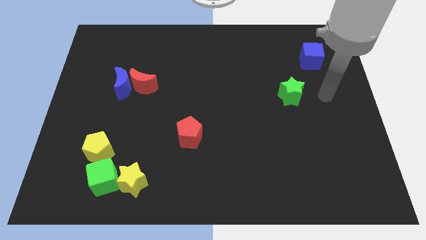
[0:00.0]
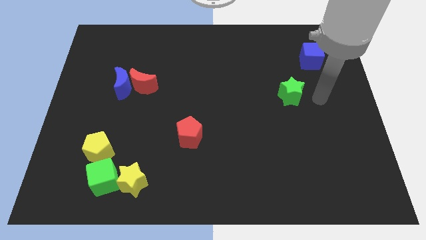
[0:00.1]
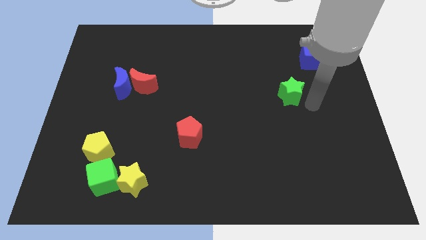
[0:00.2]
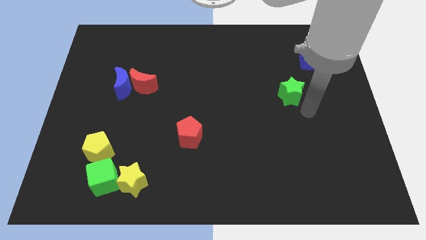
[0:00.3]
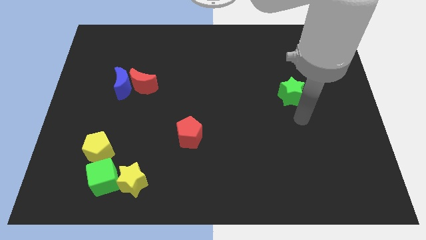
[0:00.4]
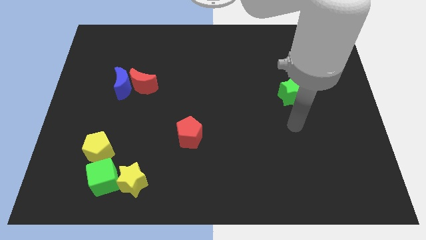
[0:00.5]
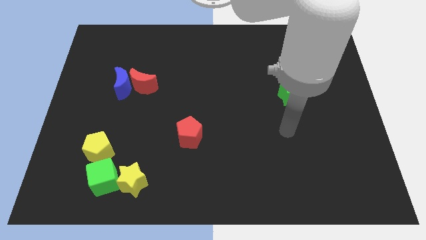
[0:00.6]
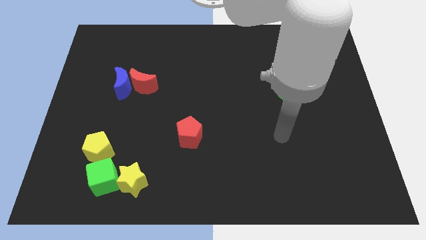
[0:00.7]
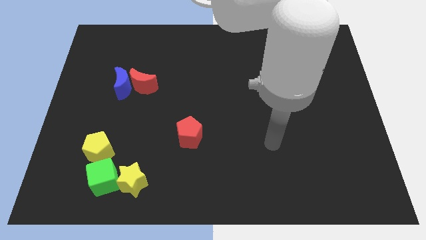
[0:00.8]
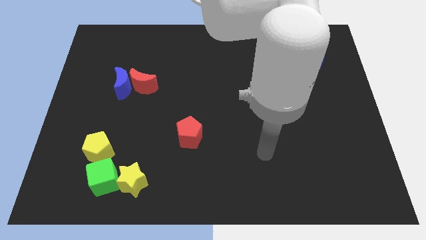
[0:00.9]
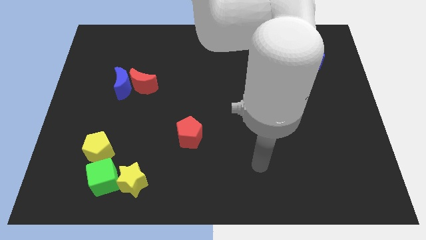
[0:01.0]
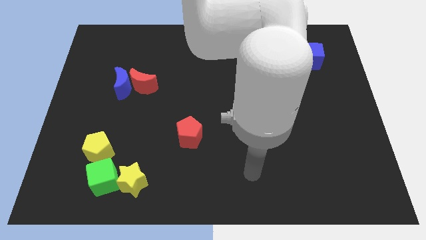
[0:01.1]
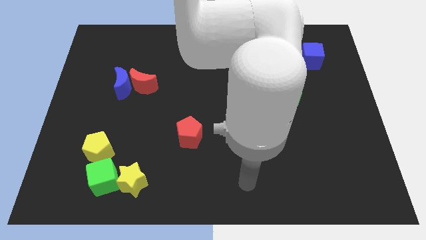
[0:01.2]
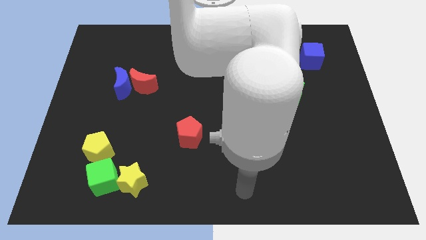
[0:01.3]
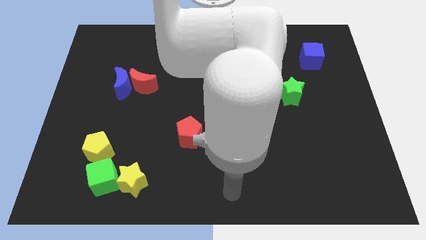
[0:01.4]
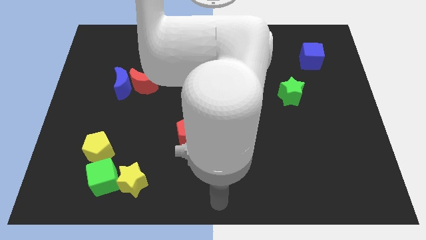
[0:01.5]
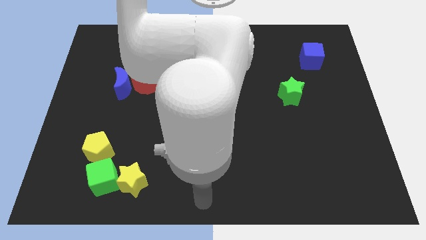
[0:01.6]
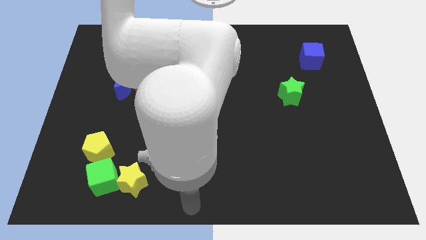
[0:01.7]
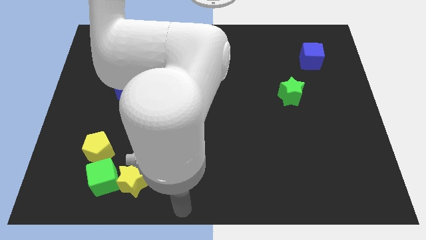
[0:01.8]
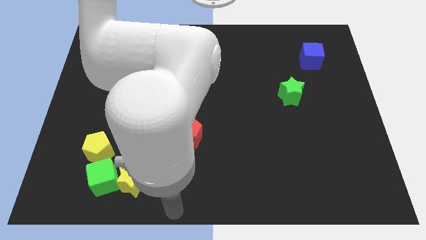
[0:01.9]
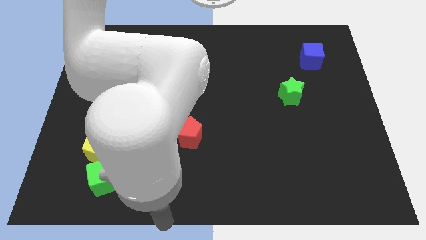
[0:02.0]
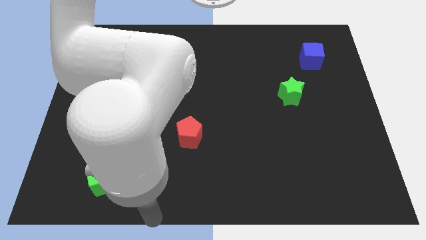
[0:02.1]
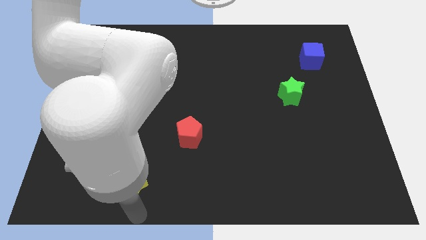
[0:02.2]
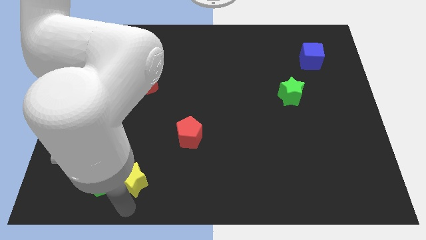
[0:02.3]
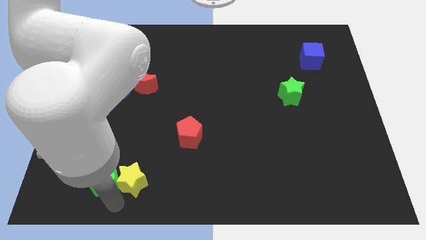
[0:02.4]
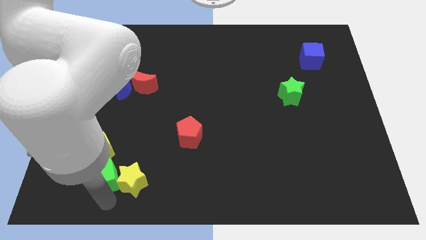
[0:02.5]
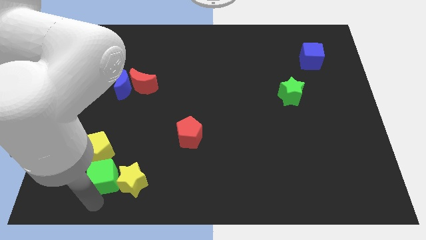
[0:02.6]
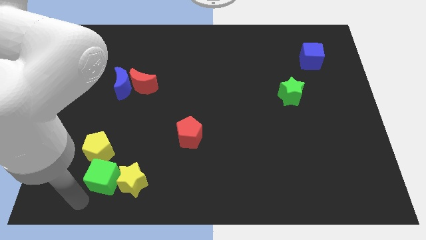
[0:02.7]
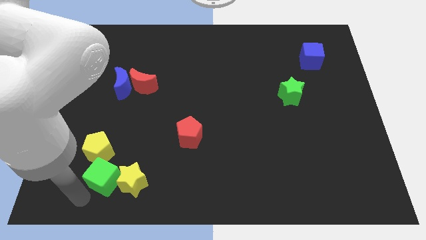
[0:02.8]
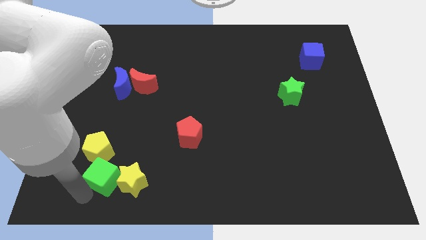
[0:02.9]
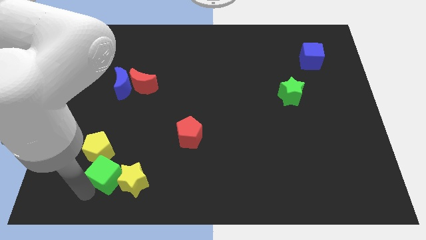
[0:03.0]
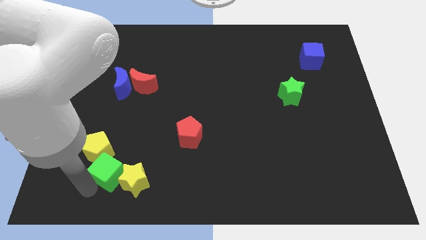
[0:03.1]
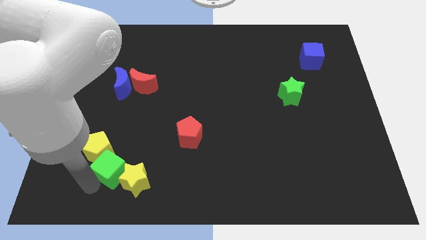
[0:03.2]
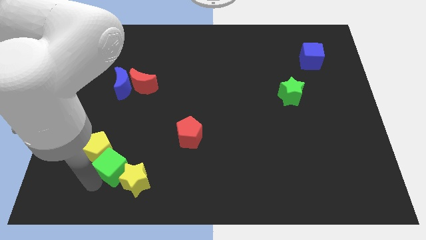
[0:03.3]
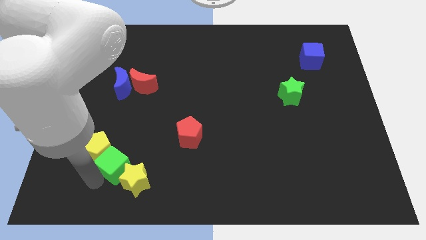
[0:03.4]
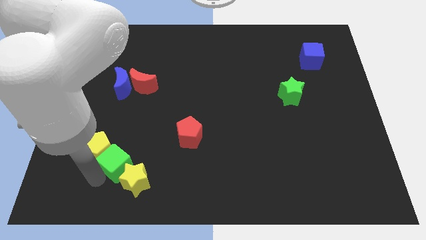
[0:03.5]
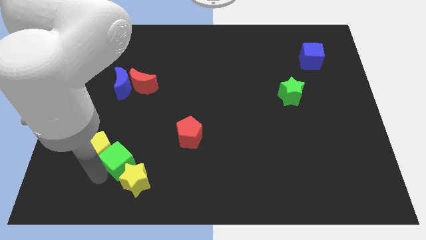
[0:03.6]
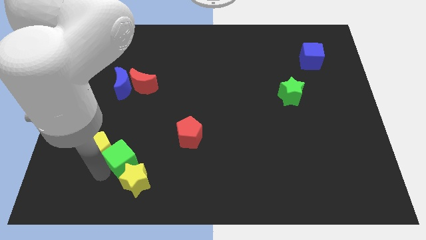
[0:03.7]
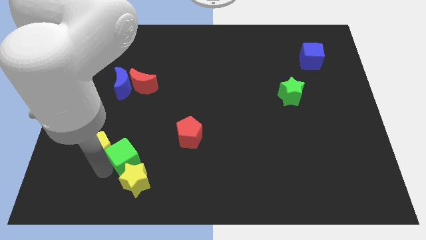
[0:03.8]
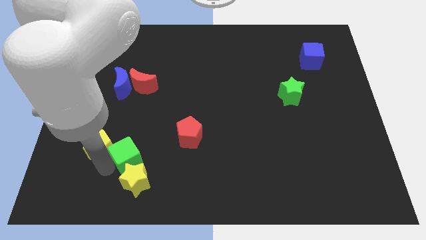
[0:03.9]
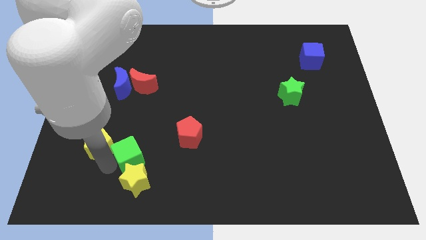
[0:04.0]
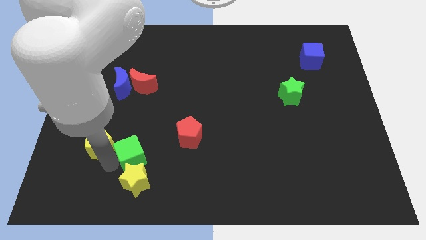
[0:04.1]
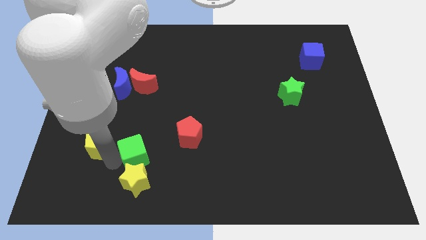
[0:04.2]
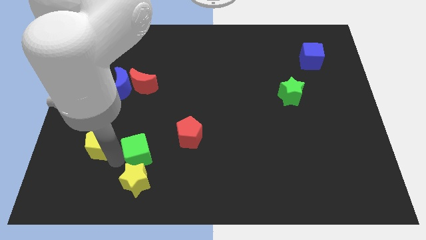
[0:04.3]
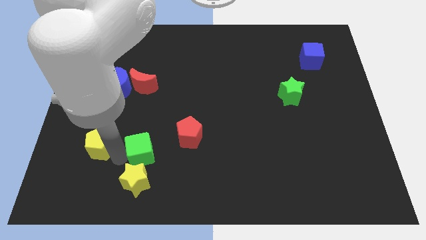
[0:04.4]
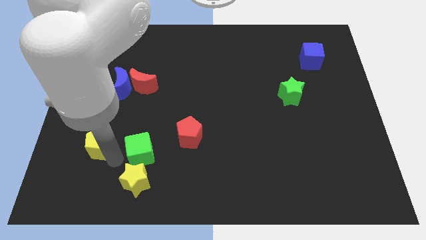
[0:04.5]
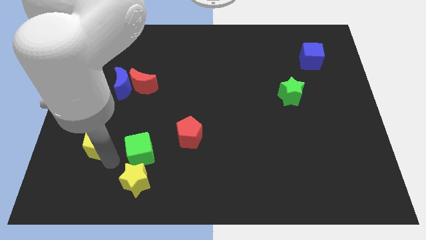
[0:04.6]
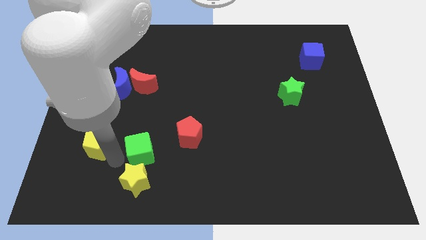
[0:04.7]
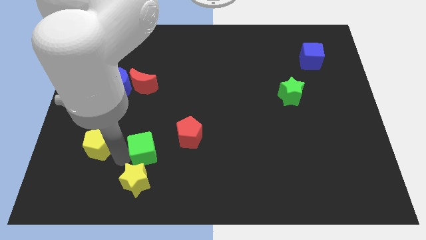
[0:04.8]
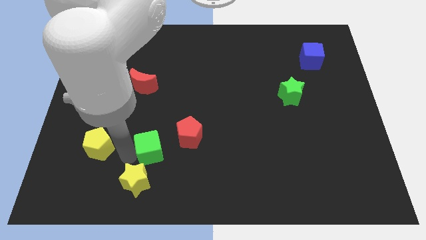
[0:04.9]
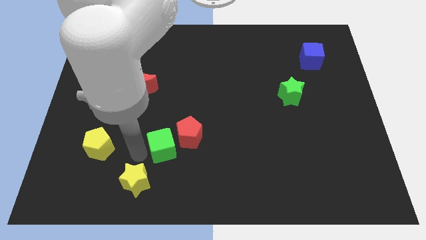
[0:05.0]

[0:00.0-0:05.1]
move the green cube towards the red pentagon

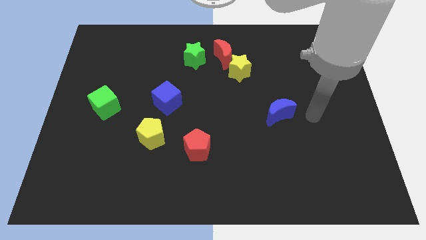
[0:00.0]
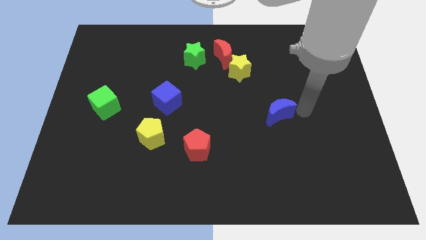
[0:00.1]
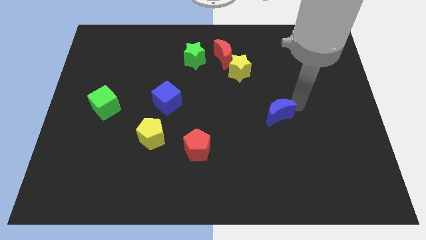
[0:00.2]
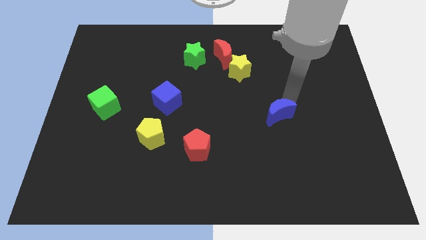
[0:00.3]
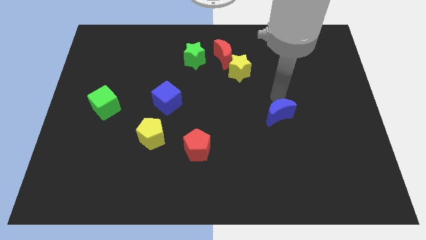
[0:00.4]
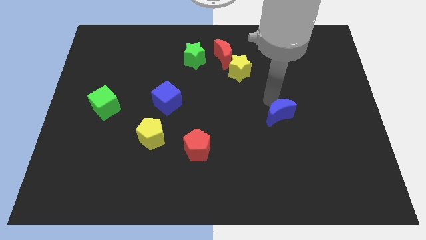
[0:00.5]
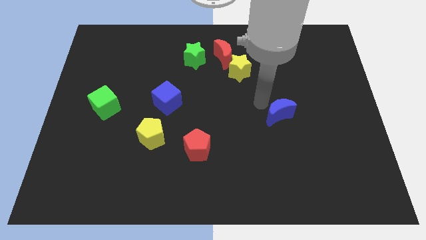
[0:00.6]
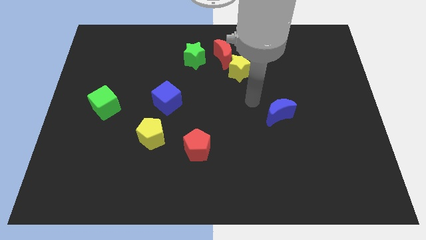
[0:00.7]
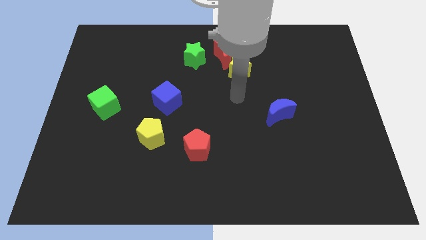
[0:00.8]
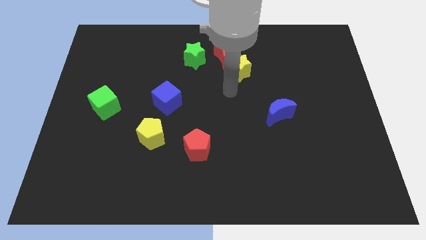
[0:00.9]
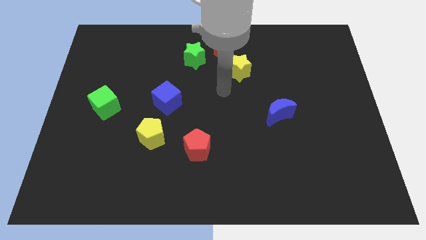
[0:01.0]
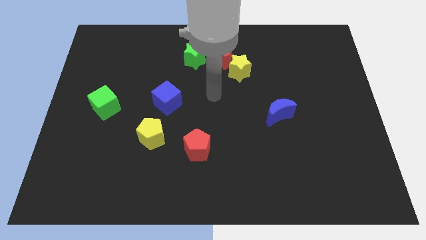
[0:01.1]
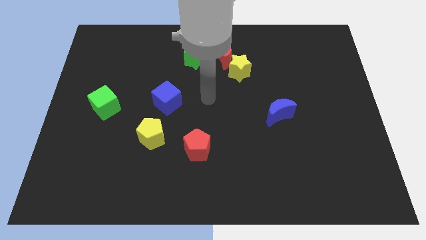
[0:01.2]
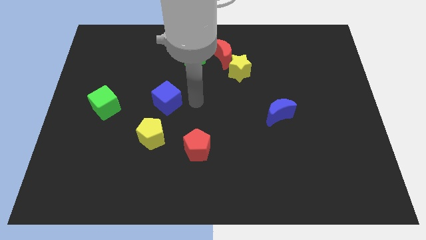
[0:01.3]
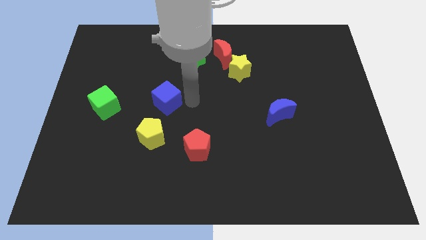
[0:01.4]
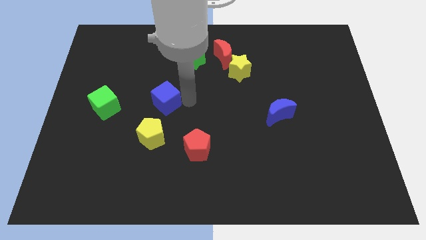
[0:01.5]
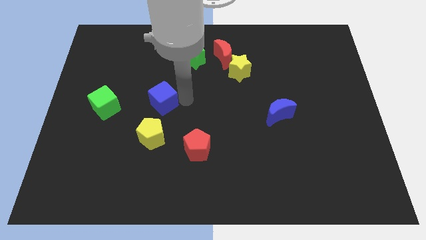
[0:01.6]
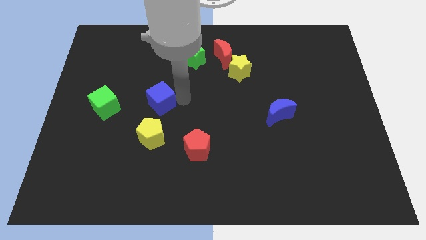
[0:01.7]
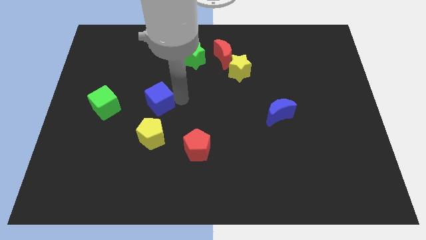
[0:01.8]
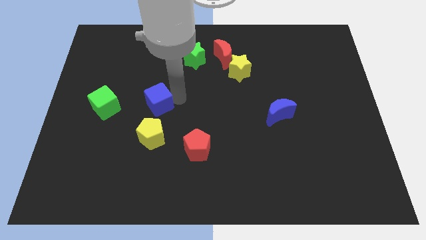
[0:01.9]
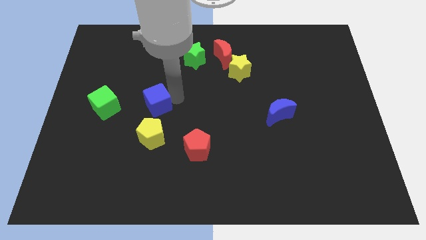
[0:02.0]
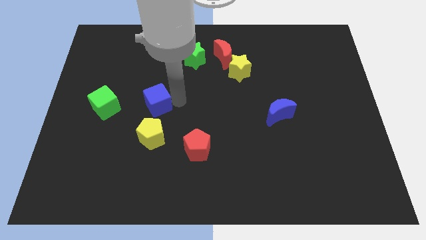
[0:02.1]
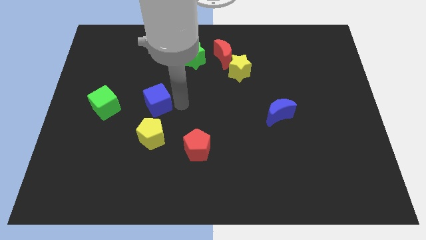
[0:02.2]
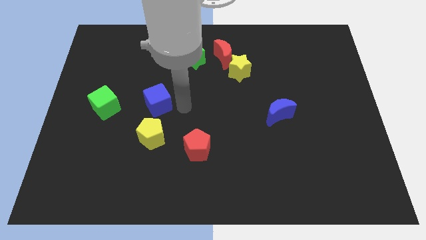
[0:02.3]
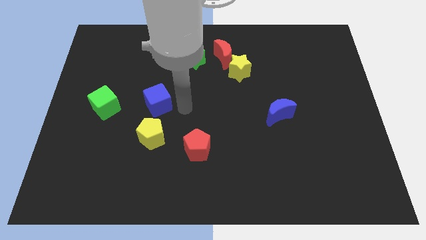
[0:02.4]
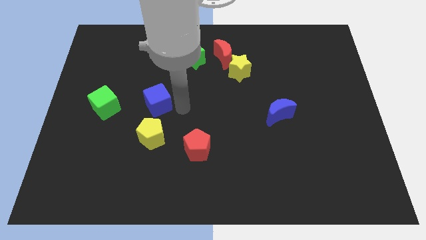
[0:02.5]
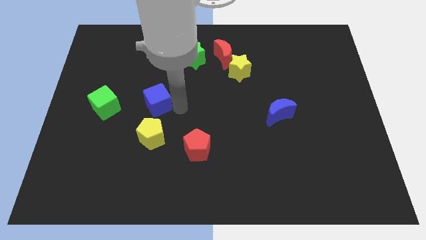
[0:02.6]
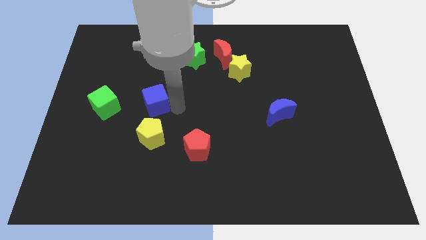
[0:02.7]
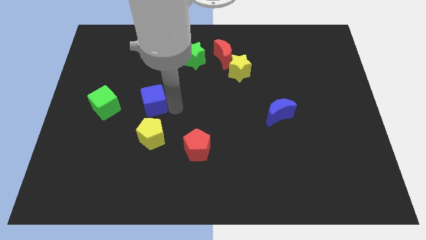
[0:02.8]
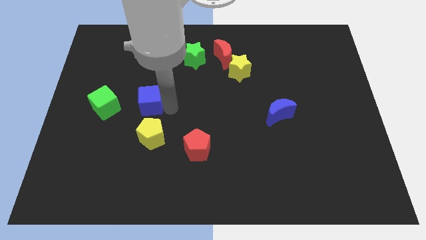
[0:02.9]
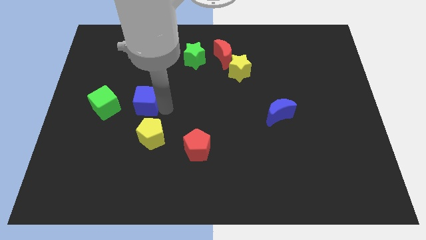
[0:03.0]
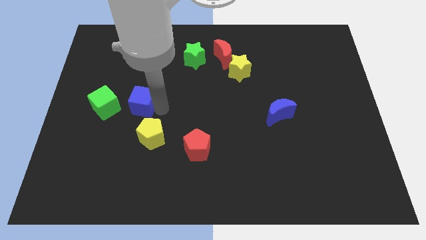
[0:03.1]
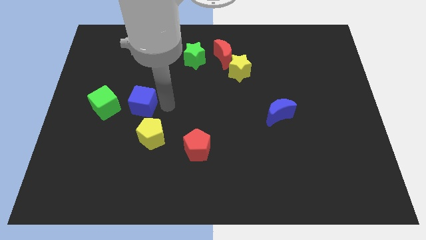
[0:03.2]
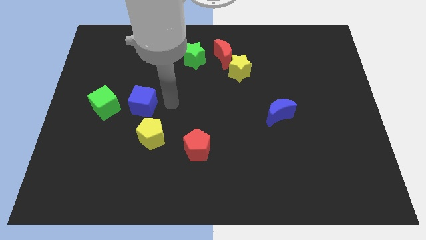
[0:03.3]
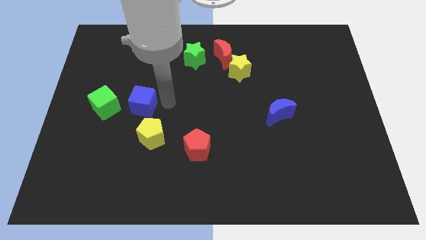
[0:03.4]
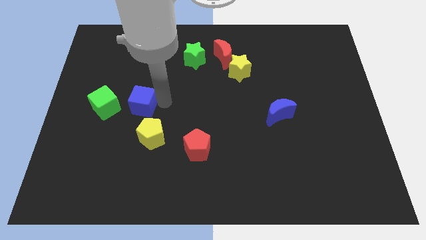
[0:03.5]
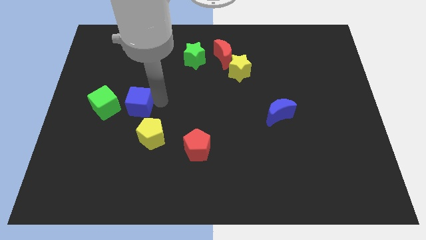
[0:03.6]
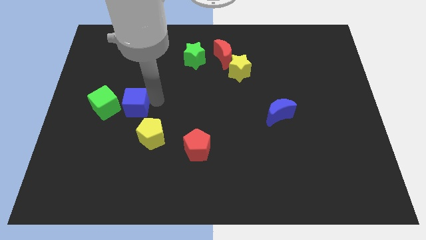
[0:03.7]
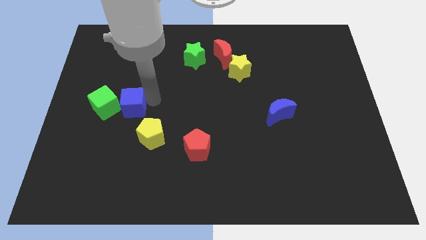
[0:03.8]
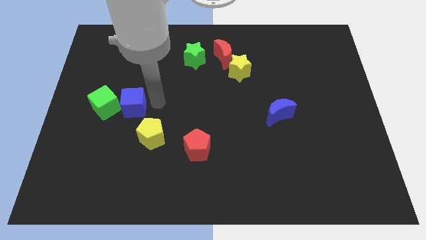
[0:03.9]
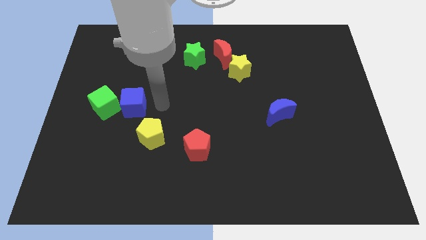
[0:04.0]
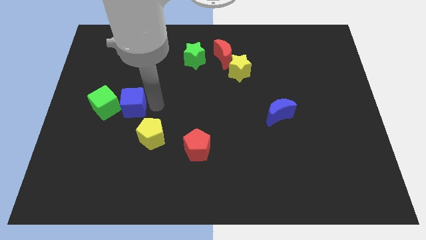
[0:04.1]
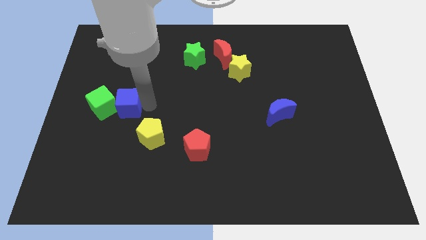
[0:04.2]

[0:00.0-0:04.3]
slide the blue cube next to the green cube
